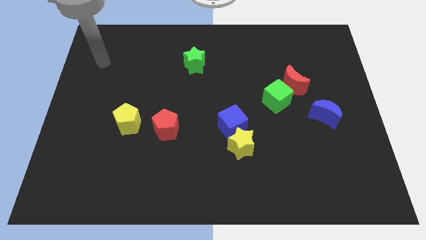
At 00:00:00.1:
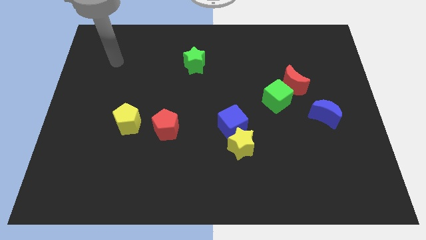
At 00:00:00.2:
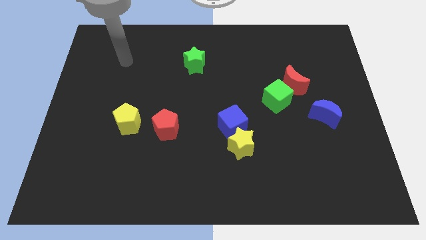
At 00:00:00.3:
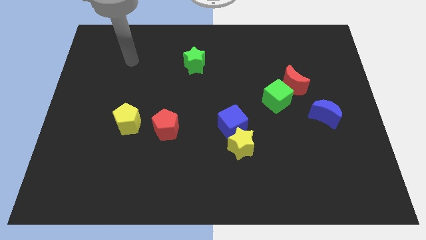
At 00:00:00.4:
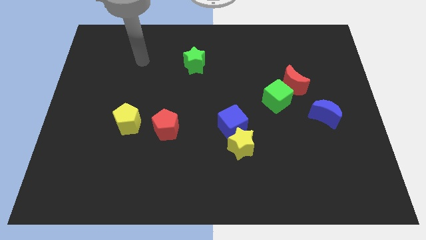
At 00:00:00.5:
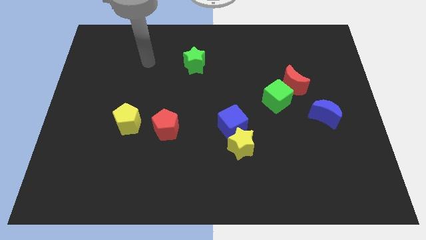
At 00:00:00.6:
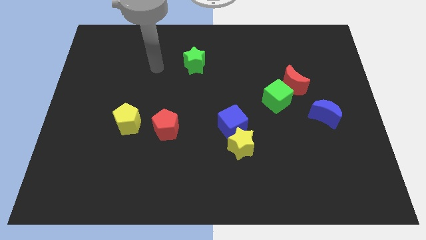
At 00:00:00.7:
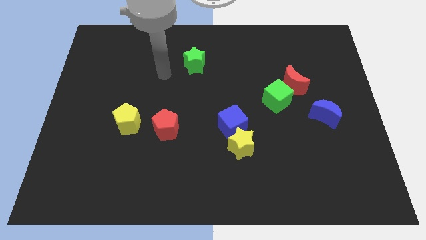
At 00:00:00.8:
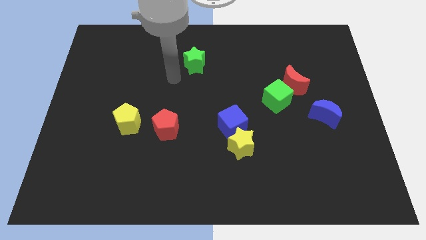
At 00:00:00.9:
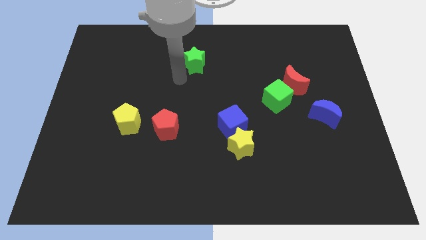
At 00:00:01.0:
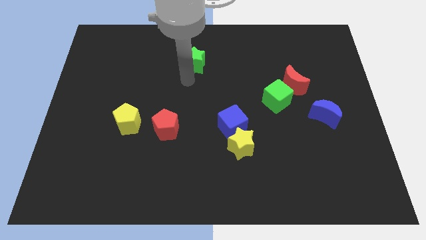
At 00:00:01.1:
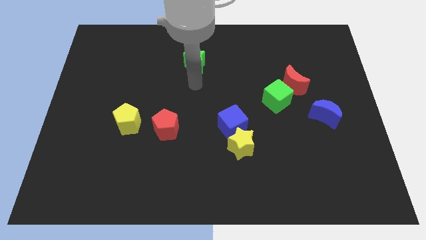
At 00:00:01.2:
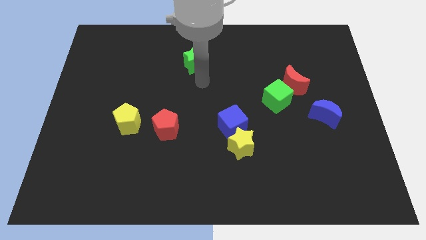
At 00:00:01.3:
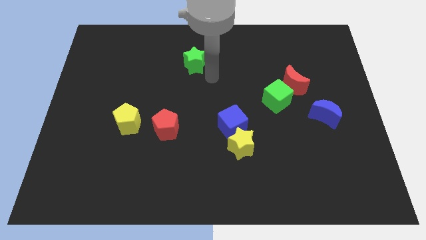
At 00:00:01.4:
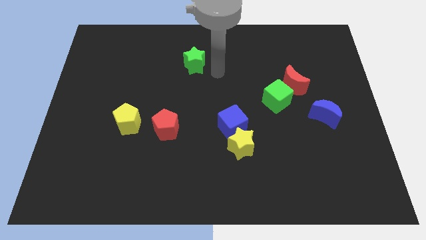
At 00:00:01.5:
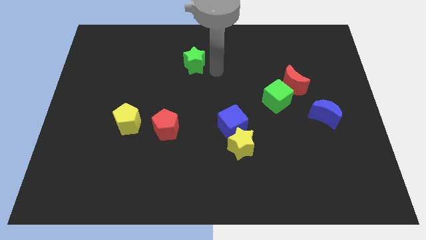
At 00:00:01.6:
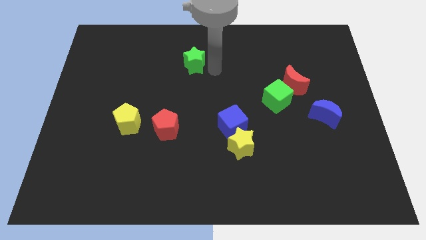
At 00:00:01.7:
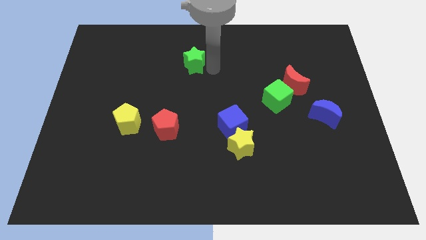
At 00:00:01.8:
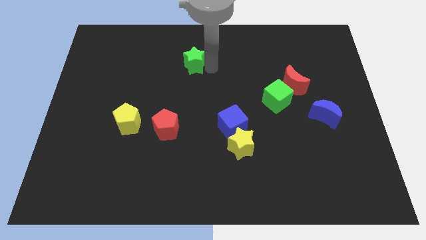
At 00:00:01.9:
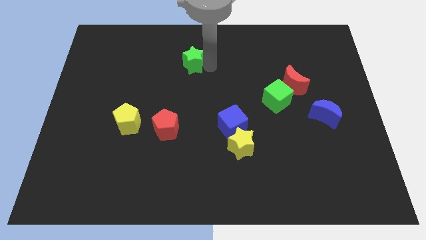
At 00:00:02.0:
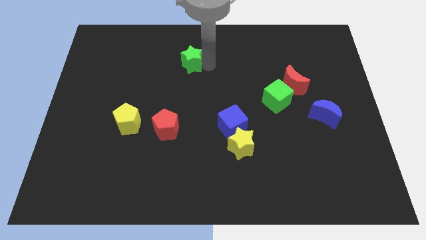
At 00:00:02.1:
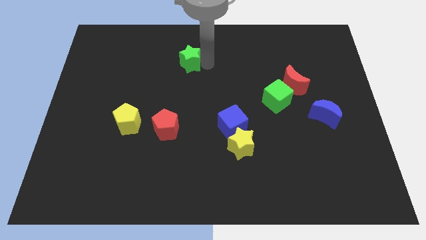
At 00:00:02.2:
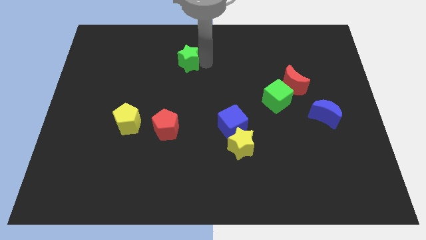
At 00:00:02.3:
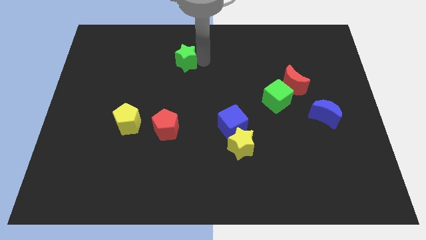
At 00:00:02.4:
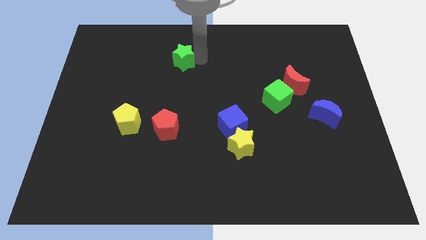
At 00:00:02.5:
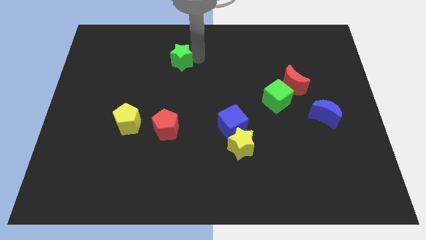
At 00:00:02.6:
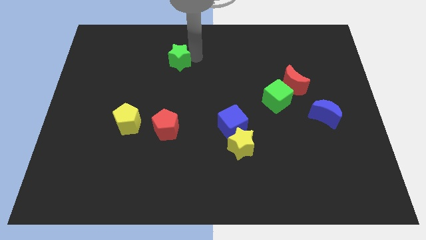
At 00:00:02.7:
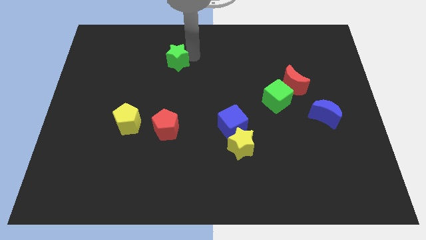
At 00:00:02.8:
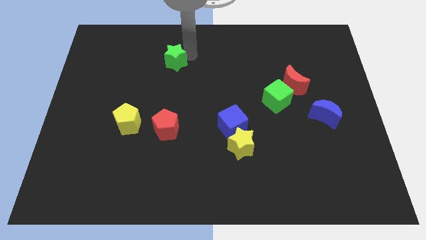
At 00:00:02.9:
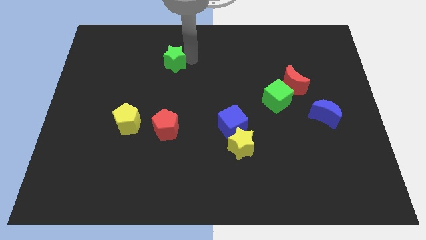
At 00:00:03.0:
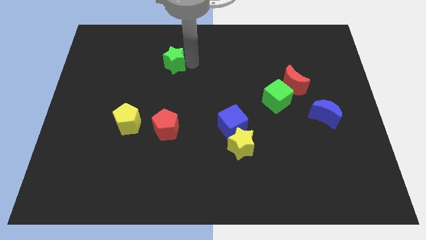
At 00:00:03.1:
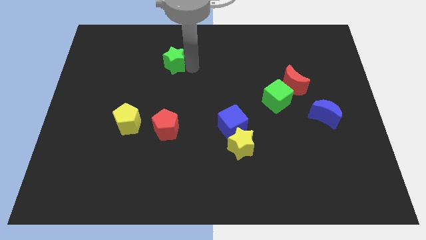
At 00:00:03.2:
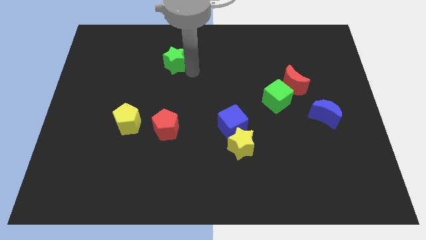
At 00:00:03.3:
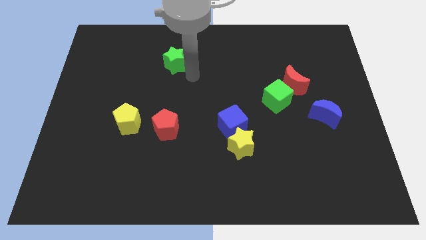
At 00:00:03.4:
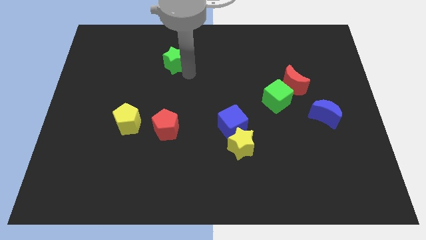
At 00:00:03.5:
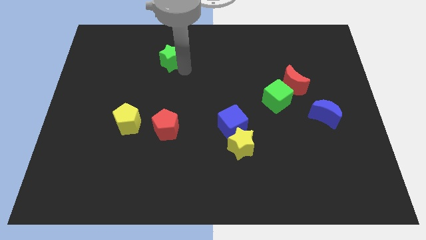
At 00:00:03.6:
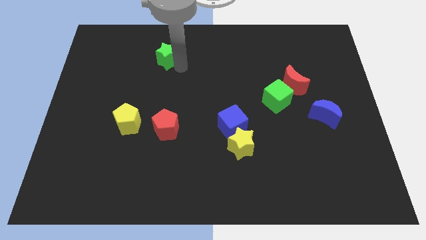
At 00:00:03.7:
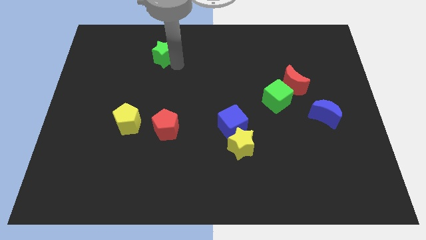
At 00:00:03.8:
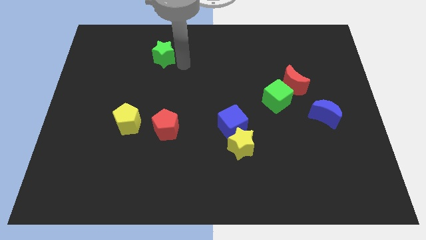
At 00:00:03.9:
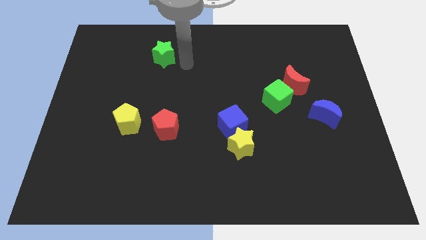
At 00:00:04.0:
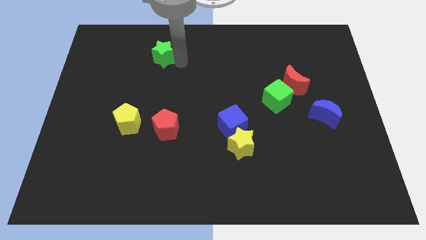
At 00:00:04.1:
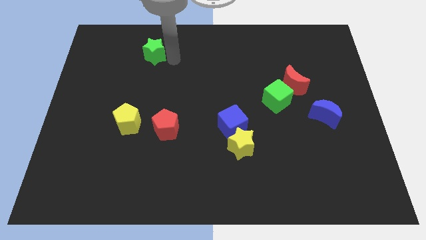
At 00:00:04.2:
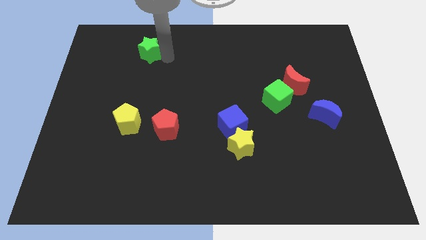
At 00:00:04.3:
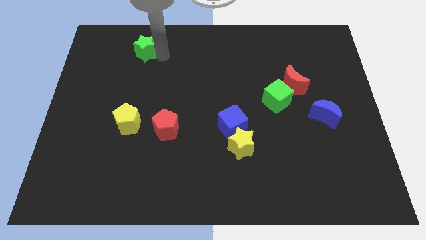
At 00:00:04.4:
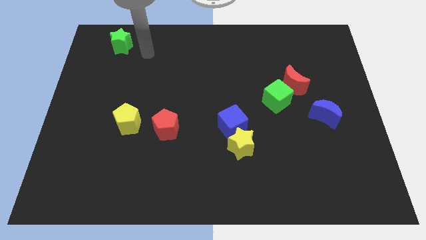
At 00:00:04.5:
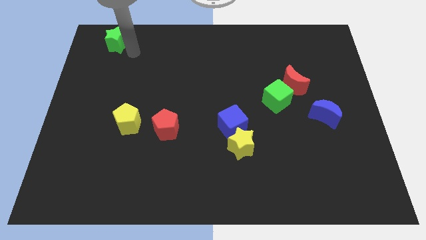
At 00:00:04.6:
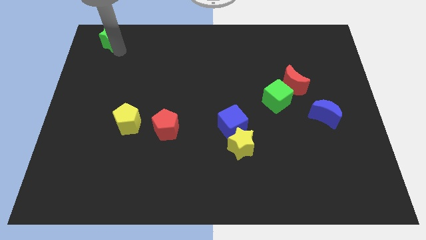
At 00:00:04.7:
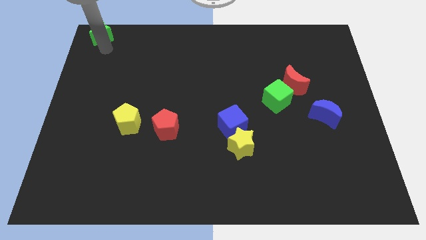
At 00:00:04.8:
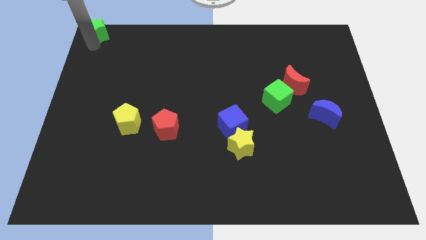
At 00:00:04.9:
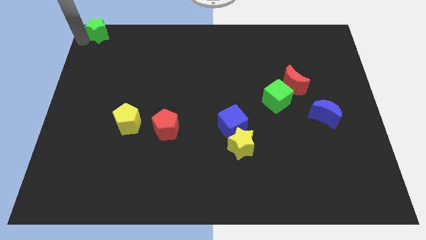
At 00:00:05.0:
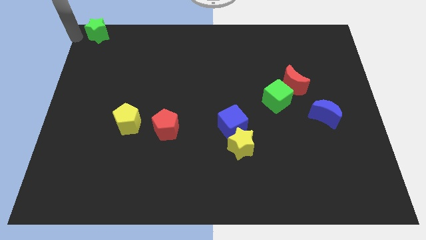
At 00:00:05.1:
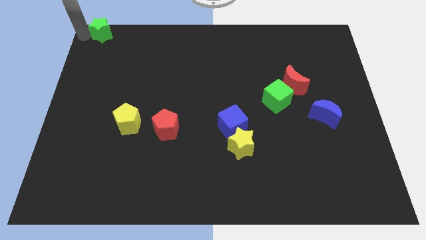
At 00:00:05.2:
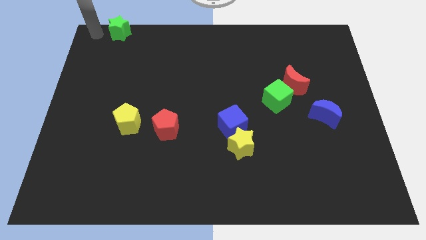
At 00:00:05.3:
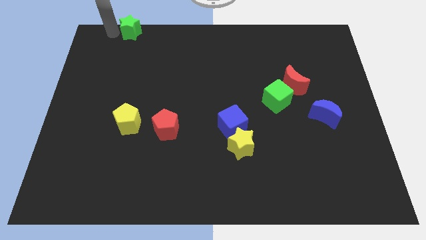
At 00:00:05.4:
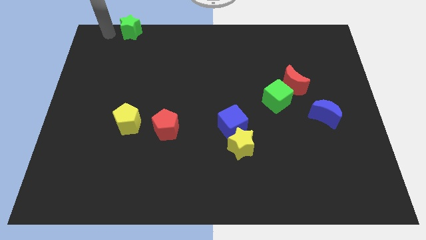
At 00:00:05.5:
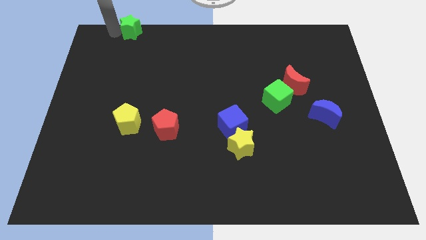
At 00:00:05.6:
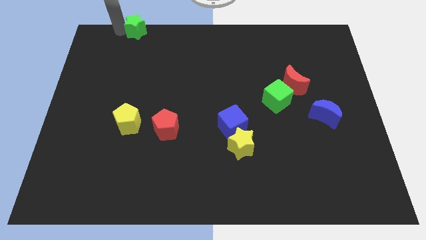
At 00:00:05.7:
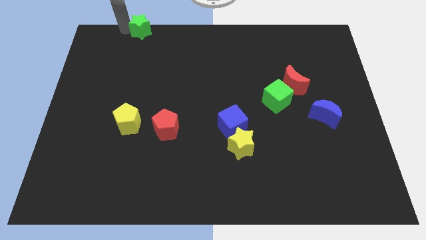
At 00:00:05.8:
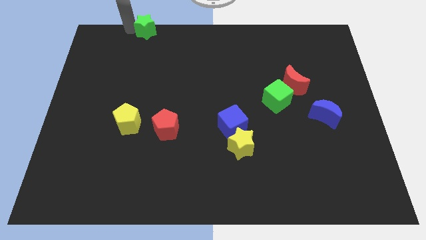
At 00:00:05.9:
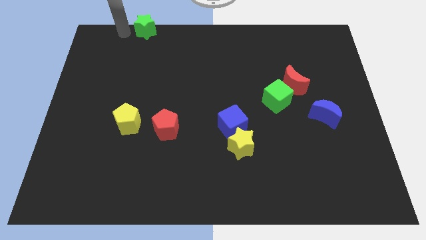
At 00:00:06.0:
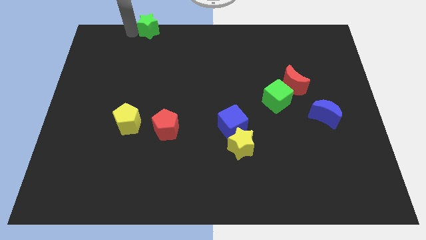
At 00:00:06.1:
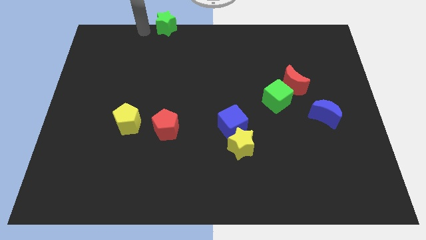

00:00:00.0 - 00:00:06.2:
put the green star to the top

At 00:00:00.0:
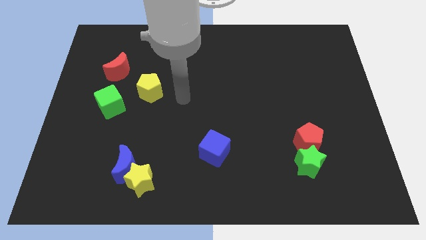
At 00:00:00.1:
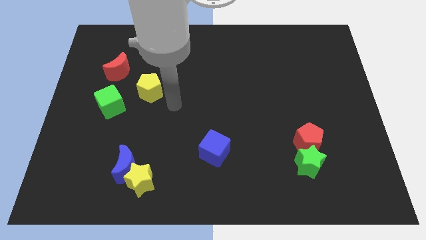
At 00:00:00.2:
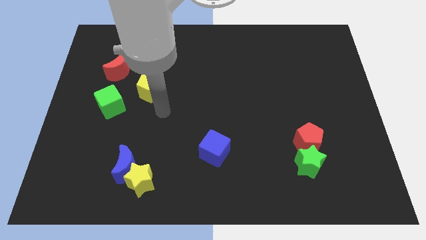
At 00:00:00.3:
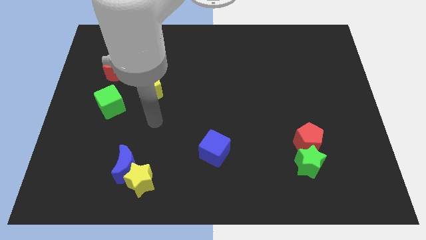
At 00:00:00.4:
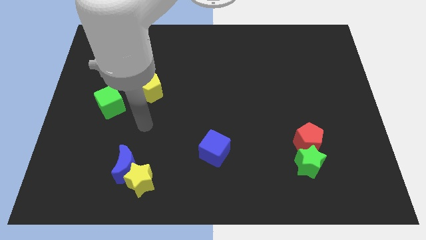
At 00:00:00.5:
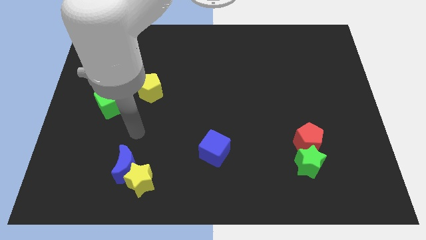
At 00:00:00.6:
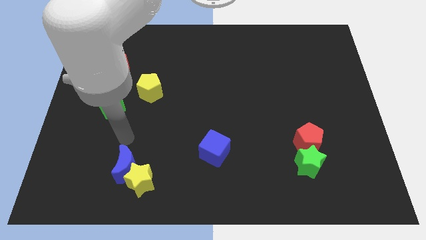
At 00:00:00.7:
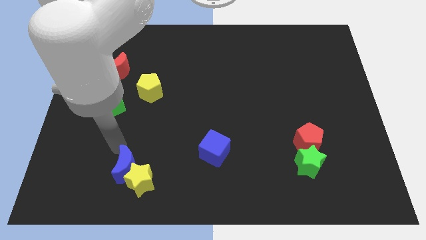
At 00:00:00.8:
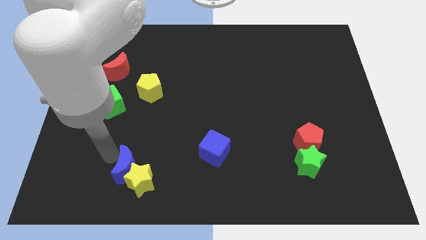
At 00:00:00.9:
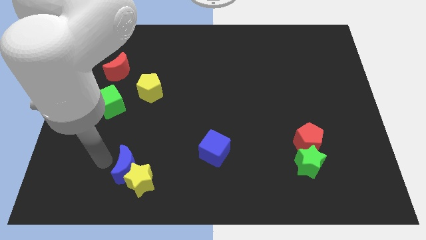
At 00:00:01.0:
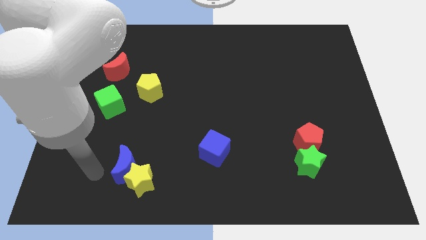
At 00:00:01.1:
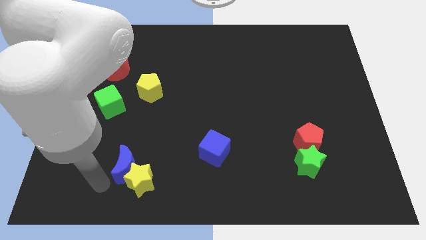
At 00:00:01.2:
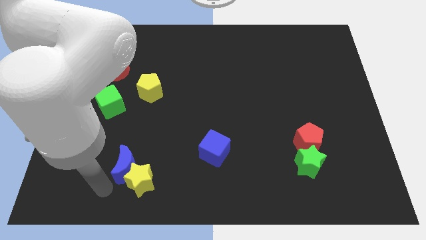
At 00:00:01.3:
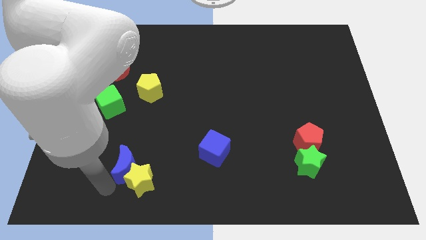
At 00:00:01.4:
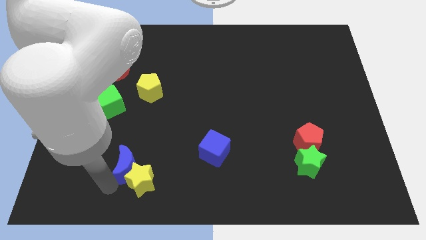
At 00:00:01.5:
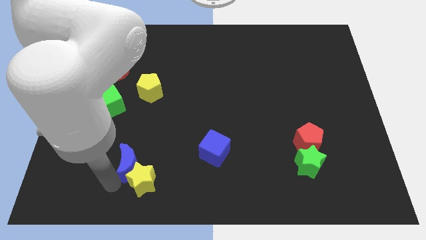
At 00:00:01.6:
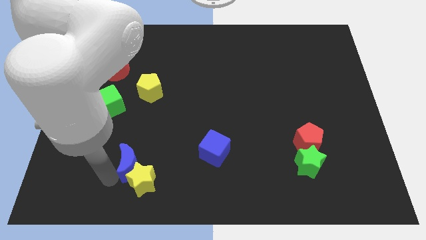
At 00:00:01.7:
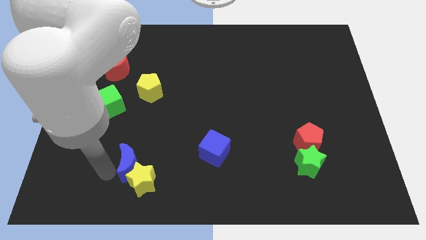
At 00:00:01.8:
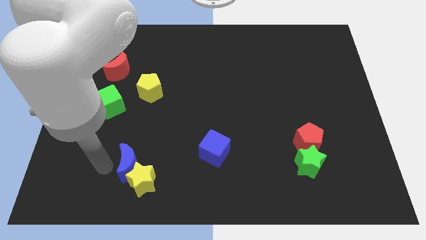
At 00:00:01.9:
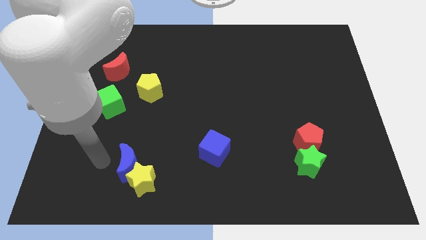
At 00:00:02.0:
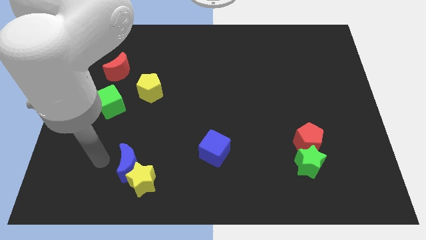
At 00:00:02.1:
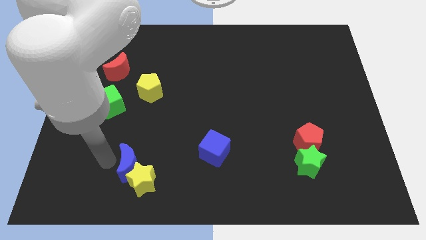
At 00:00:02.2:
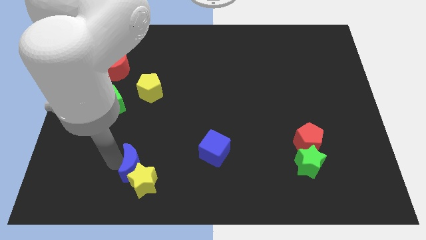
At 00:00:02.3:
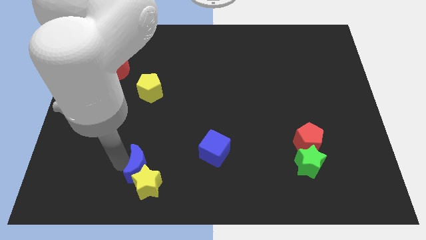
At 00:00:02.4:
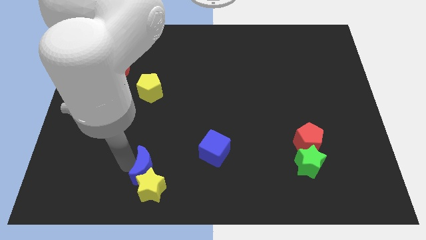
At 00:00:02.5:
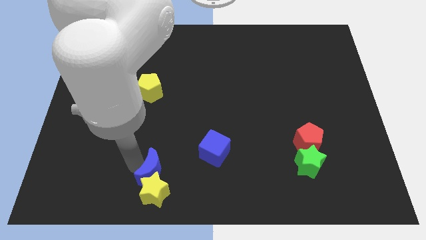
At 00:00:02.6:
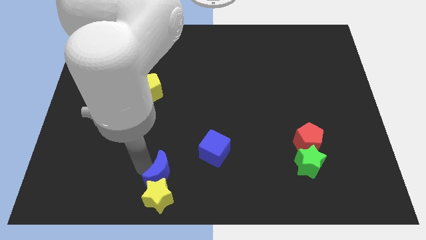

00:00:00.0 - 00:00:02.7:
push the blue moon to the bottom side
